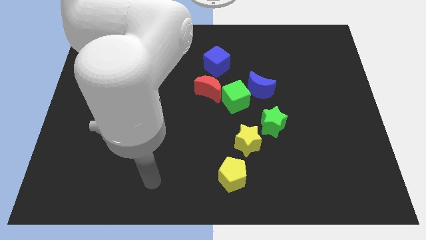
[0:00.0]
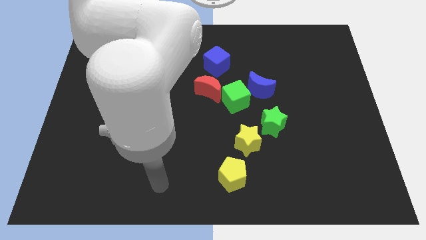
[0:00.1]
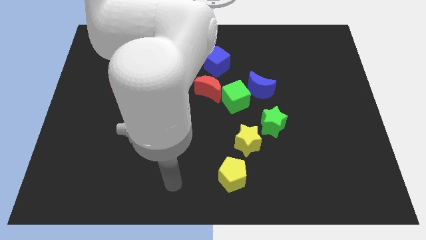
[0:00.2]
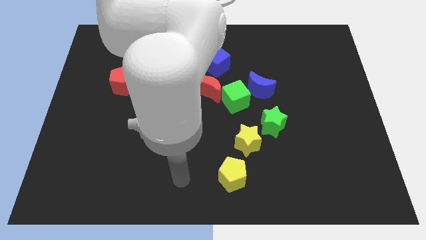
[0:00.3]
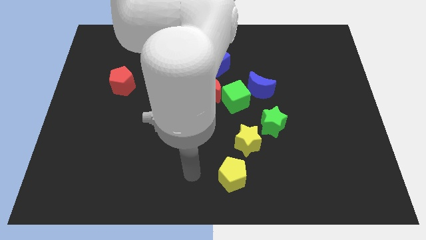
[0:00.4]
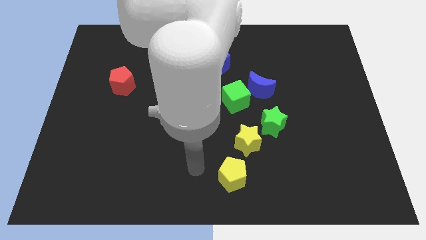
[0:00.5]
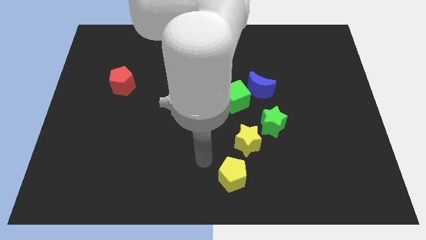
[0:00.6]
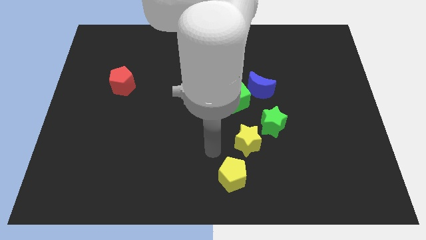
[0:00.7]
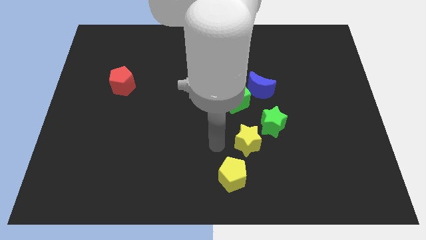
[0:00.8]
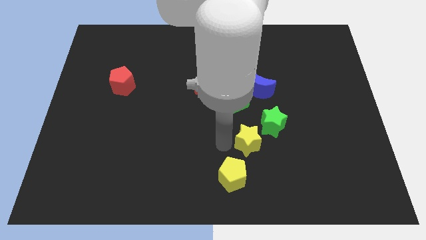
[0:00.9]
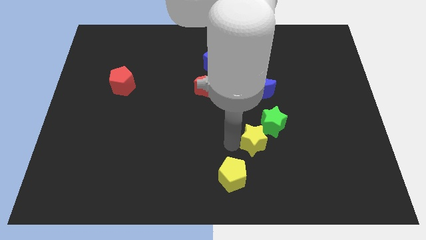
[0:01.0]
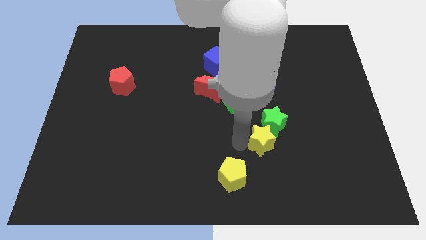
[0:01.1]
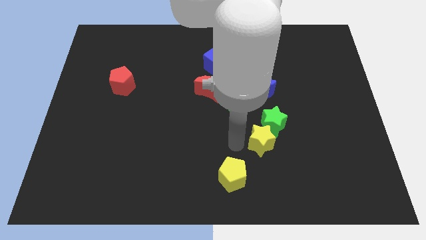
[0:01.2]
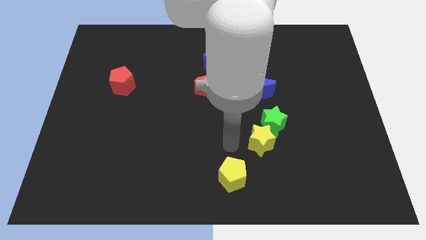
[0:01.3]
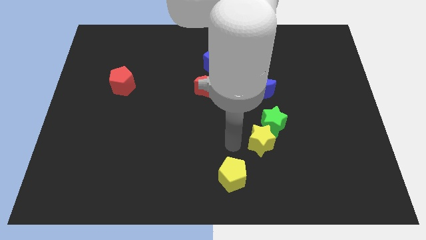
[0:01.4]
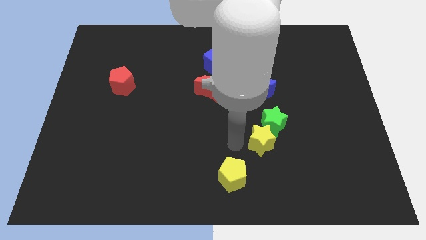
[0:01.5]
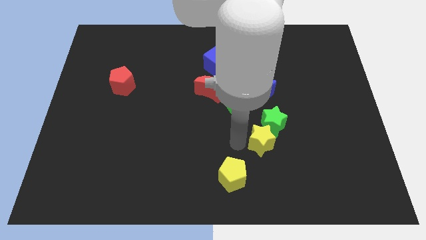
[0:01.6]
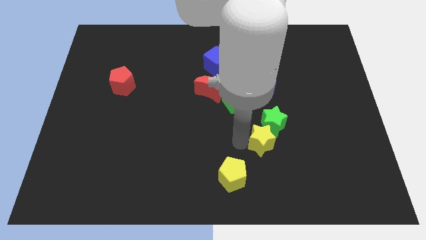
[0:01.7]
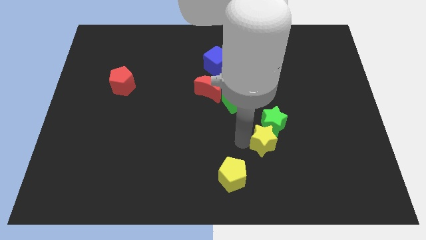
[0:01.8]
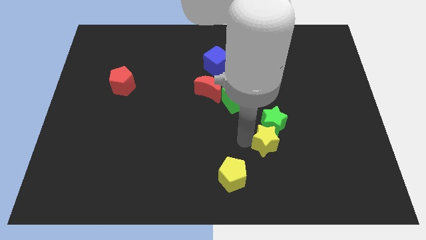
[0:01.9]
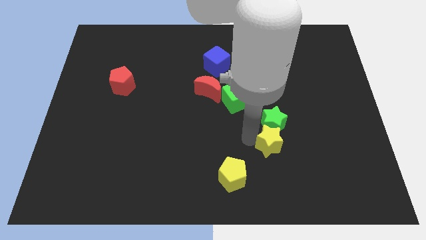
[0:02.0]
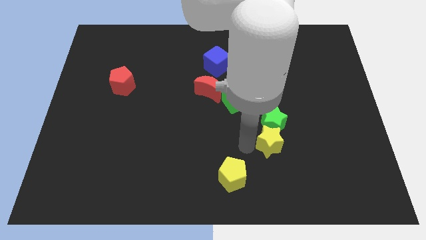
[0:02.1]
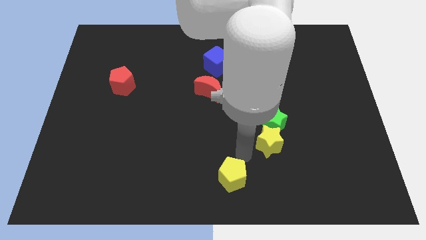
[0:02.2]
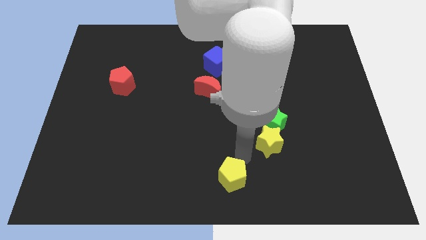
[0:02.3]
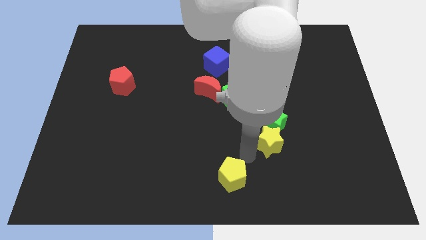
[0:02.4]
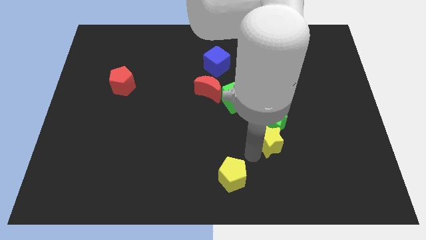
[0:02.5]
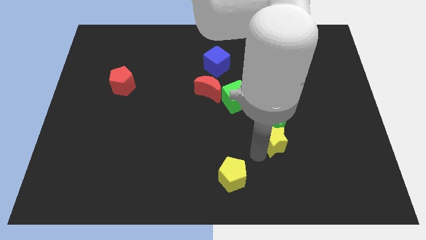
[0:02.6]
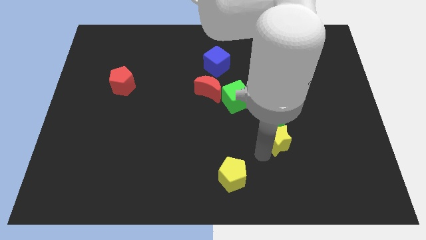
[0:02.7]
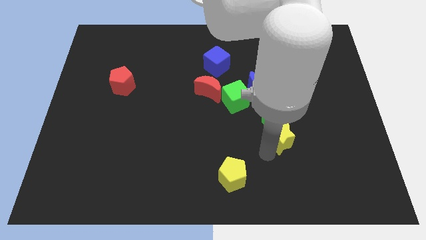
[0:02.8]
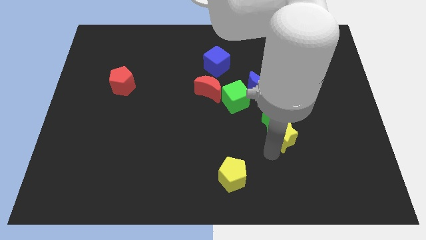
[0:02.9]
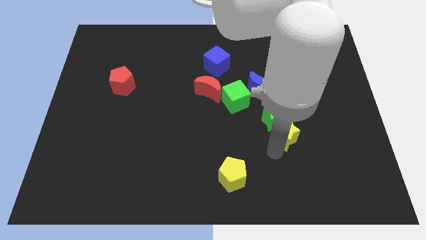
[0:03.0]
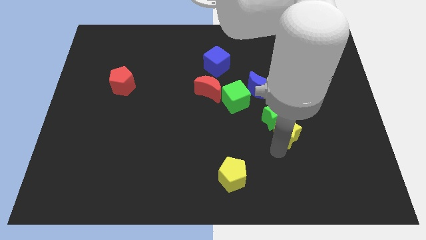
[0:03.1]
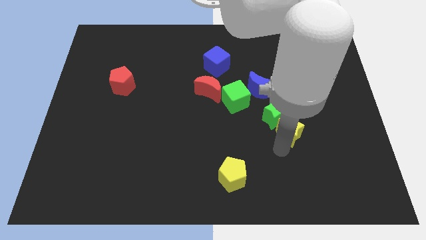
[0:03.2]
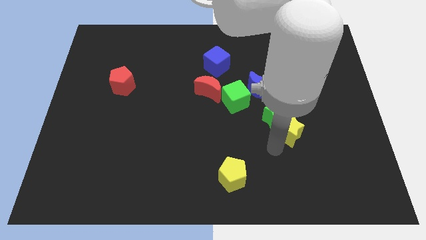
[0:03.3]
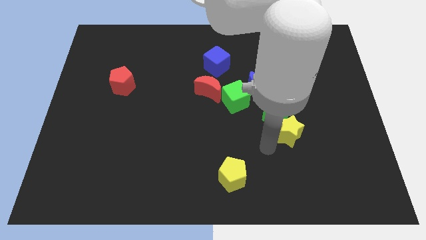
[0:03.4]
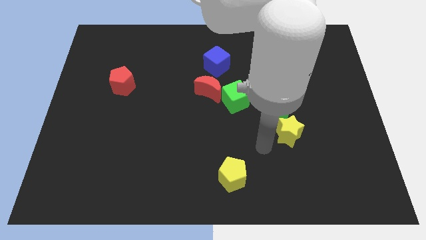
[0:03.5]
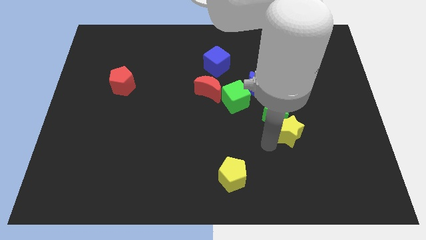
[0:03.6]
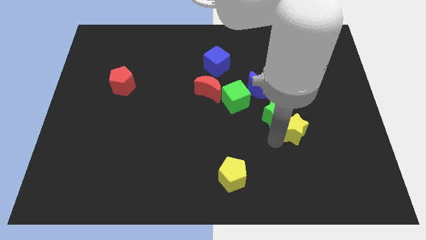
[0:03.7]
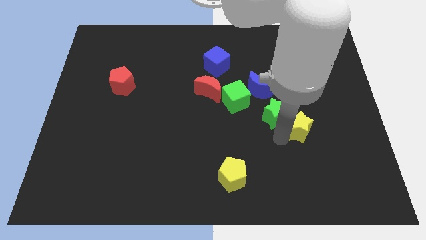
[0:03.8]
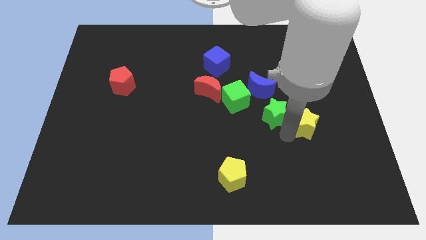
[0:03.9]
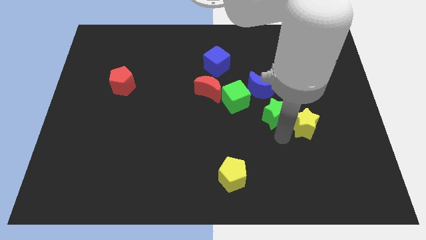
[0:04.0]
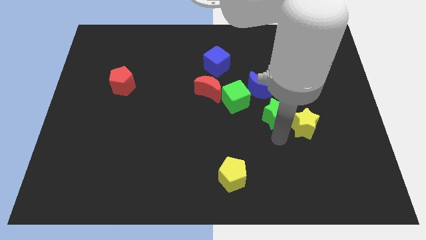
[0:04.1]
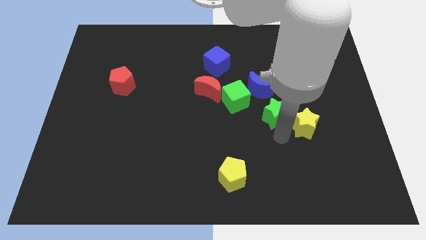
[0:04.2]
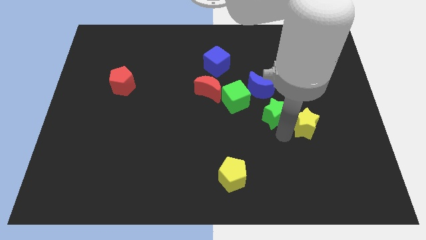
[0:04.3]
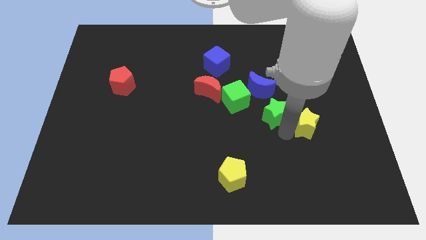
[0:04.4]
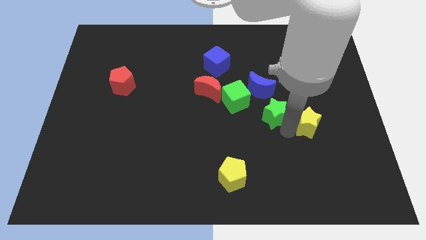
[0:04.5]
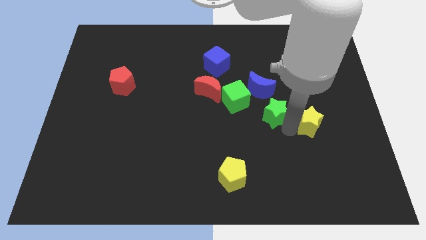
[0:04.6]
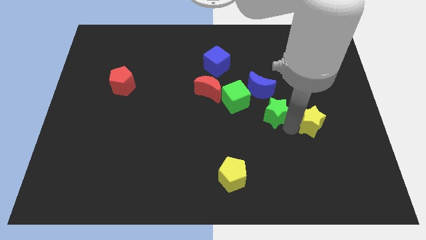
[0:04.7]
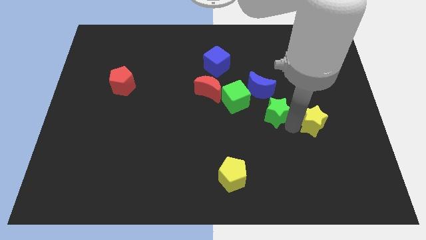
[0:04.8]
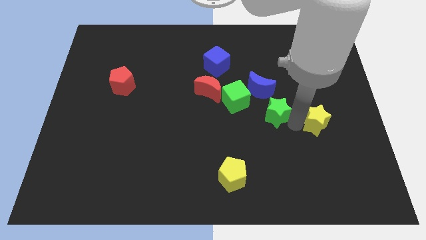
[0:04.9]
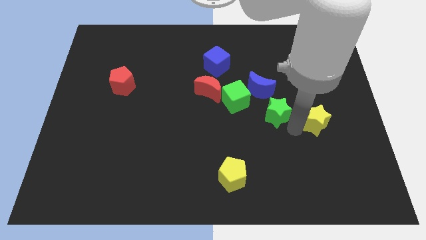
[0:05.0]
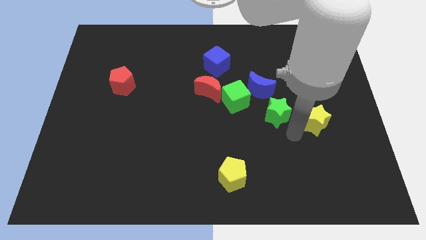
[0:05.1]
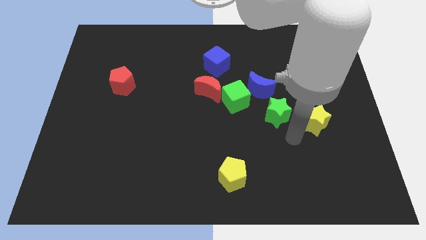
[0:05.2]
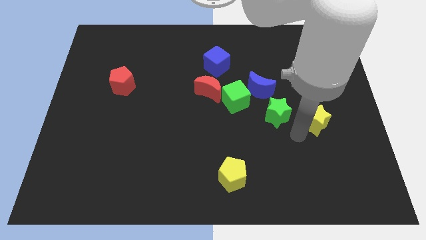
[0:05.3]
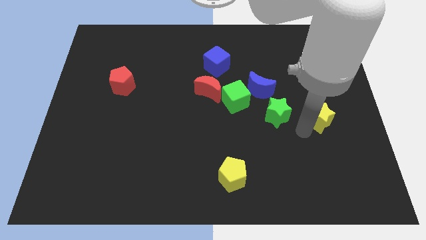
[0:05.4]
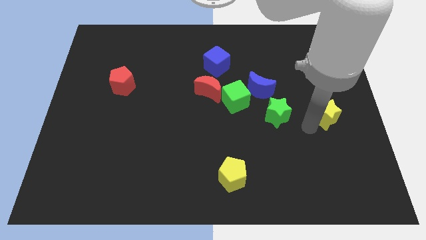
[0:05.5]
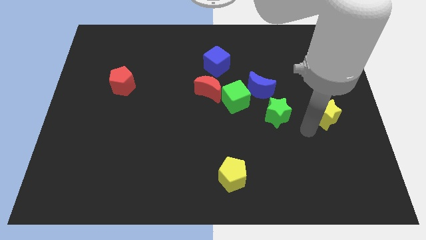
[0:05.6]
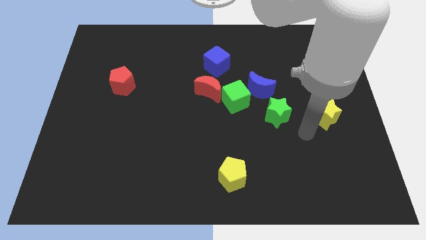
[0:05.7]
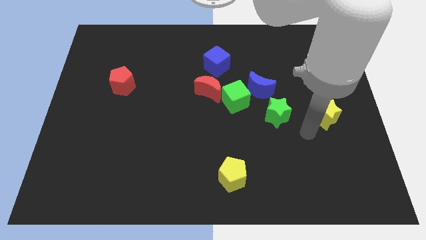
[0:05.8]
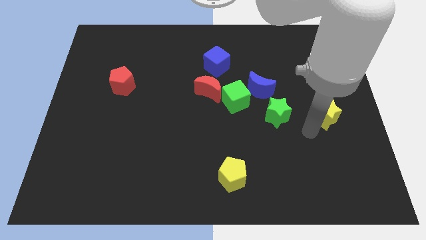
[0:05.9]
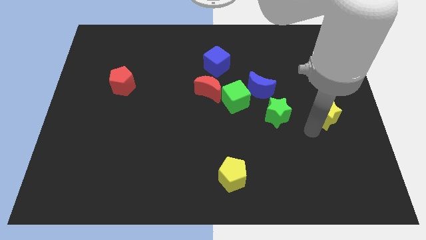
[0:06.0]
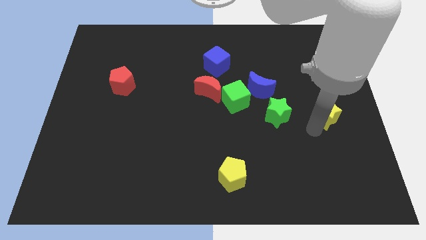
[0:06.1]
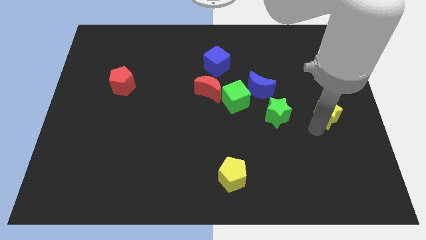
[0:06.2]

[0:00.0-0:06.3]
move the yellow star to the right side of the board
